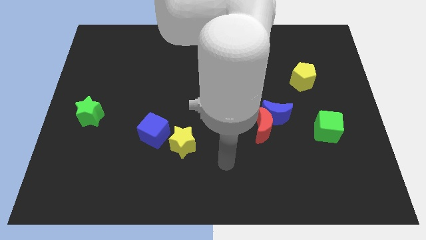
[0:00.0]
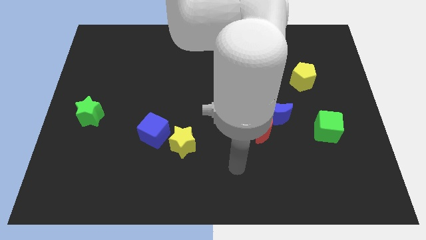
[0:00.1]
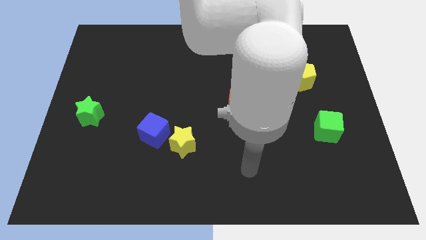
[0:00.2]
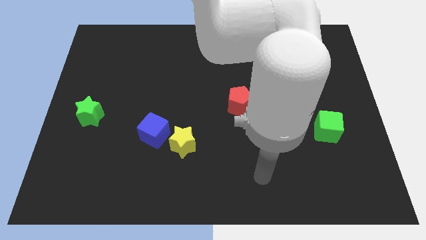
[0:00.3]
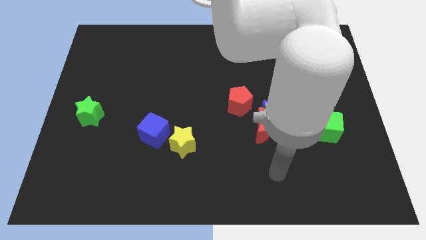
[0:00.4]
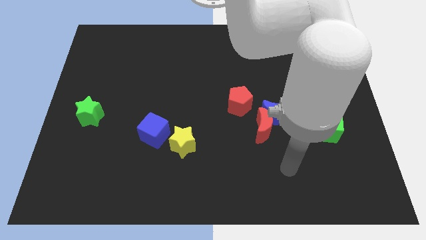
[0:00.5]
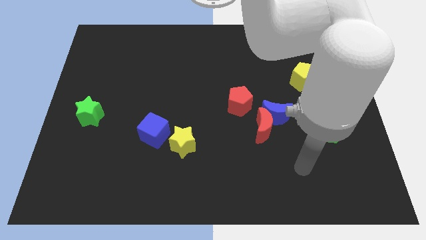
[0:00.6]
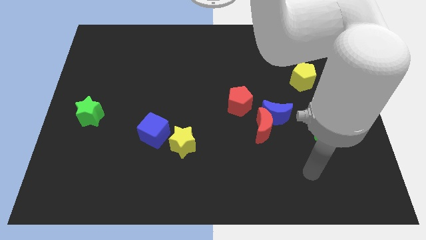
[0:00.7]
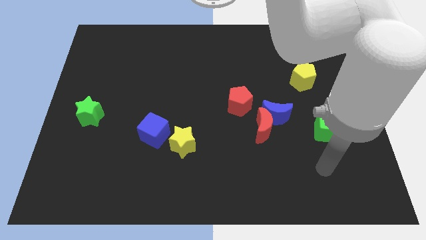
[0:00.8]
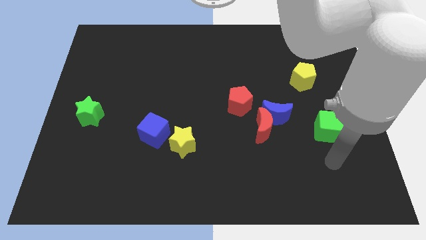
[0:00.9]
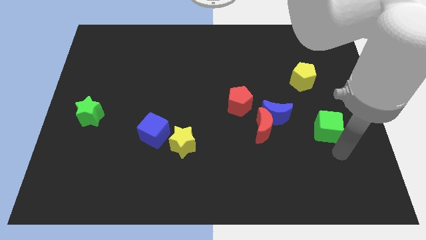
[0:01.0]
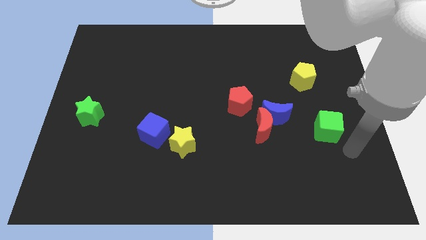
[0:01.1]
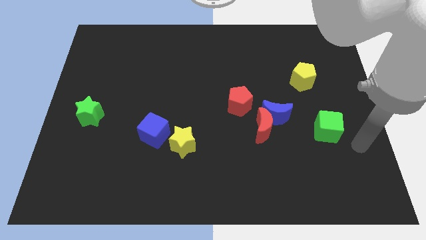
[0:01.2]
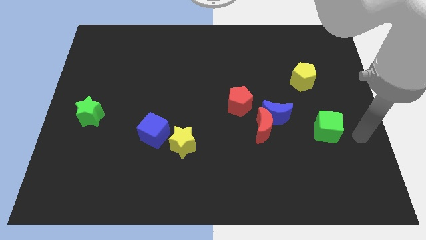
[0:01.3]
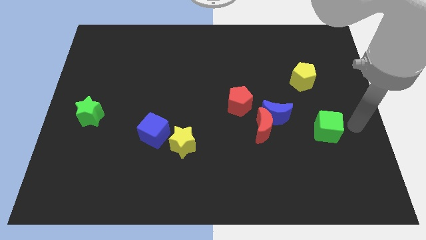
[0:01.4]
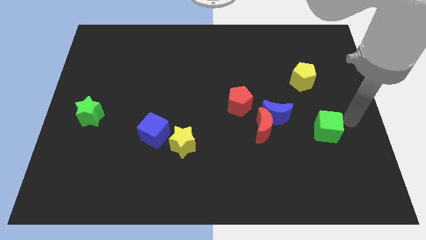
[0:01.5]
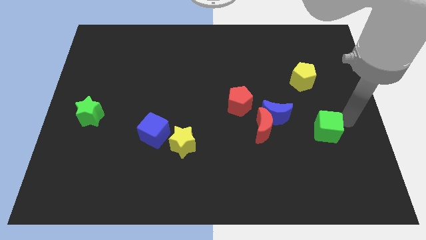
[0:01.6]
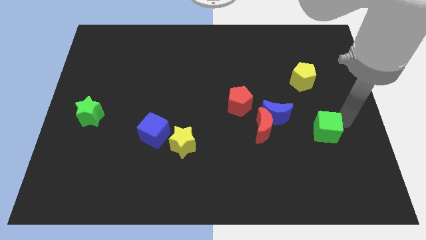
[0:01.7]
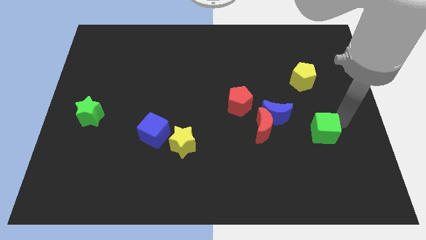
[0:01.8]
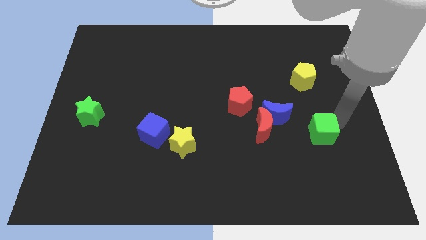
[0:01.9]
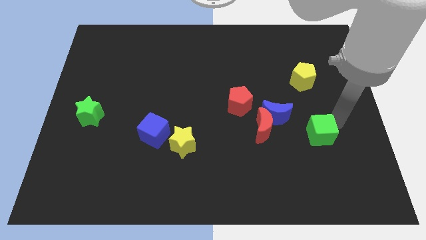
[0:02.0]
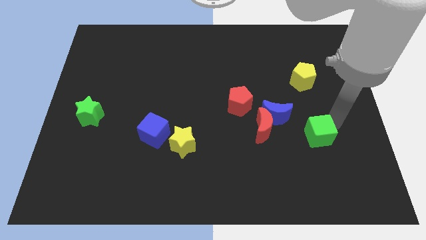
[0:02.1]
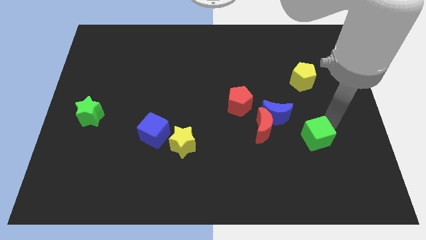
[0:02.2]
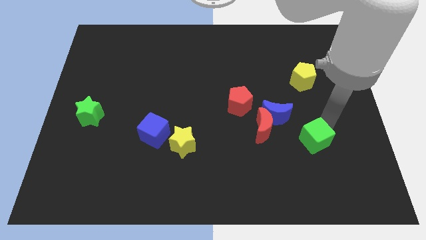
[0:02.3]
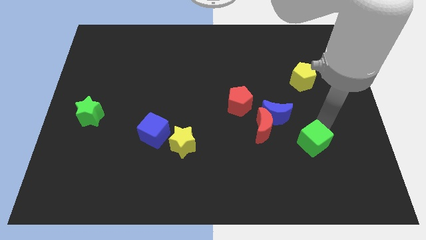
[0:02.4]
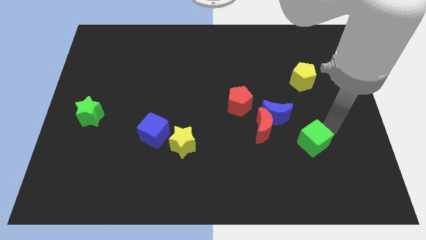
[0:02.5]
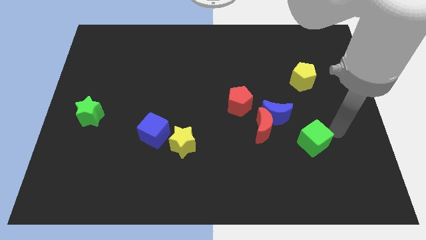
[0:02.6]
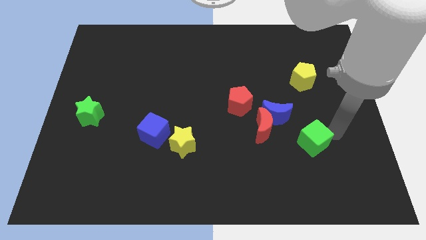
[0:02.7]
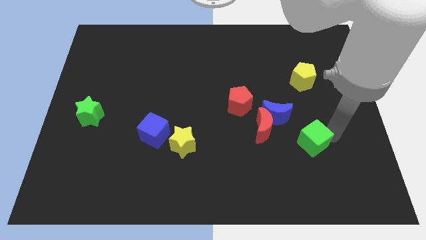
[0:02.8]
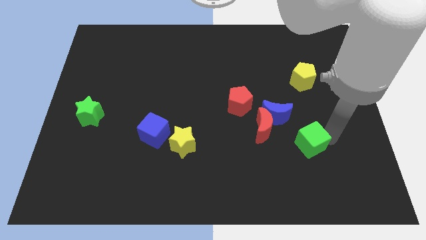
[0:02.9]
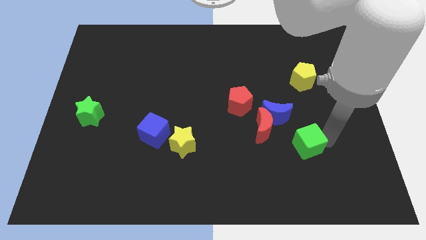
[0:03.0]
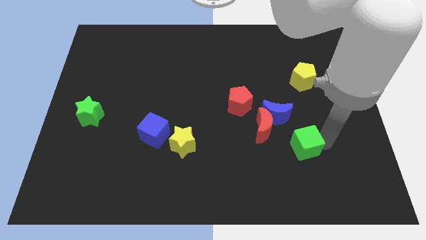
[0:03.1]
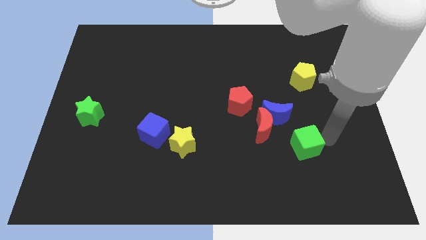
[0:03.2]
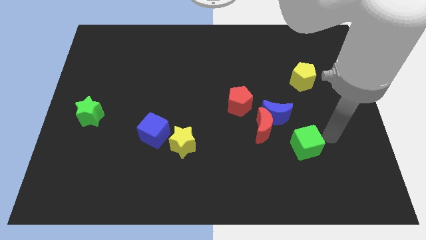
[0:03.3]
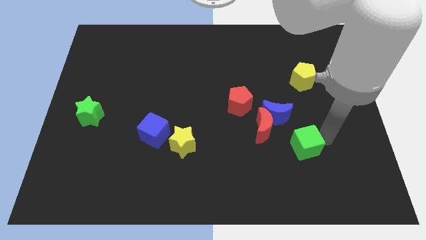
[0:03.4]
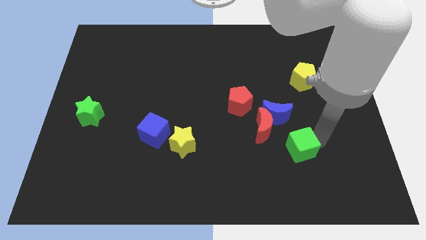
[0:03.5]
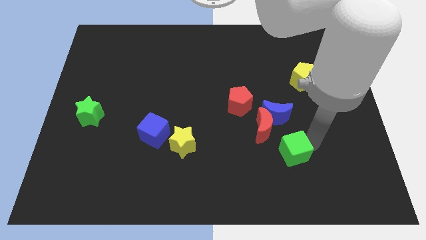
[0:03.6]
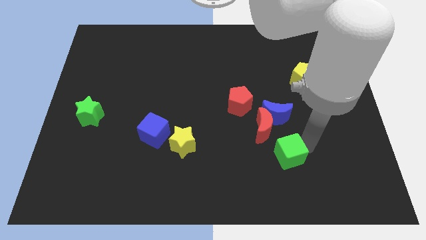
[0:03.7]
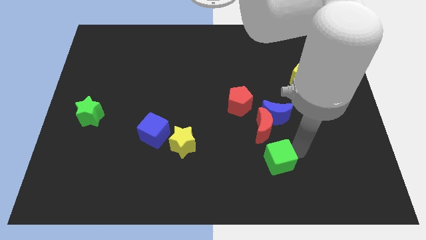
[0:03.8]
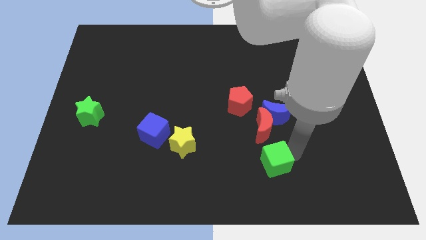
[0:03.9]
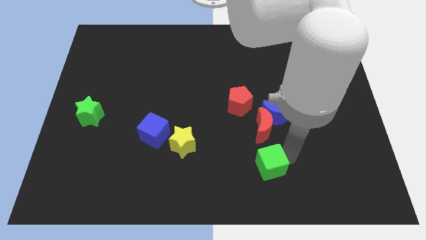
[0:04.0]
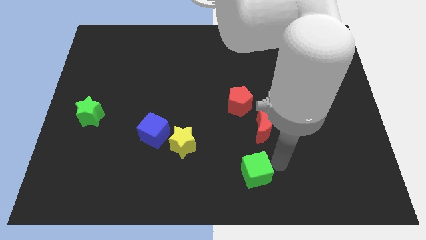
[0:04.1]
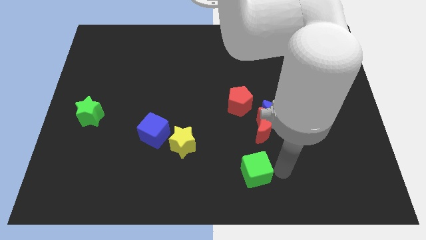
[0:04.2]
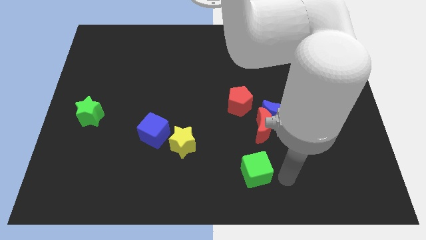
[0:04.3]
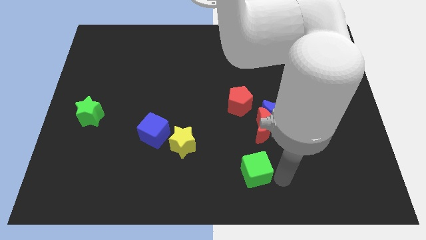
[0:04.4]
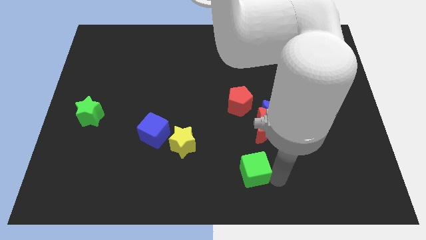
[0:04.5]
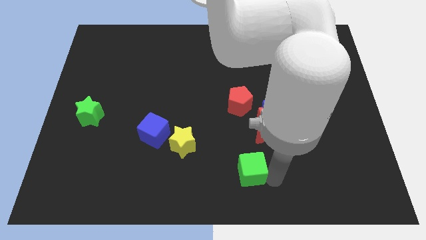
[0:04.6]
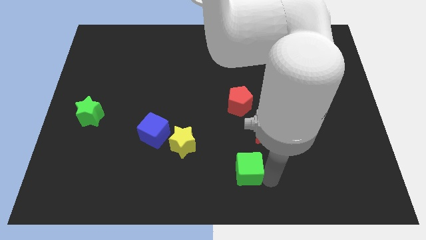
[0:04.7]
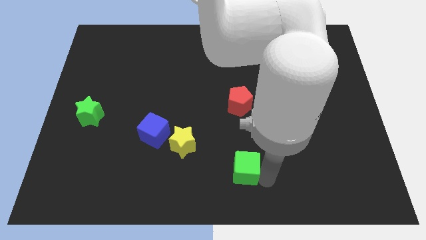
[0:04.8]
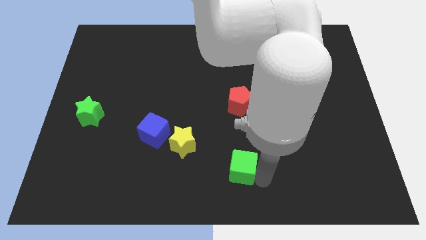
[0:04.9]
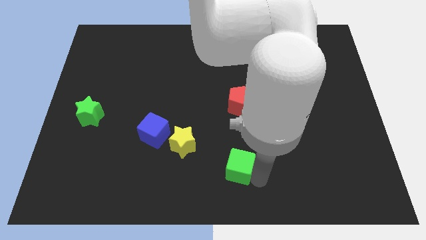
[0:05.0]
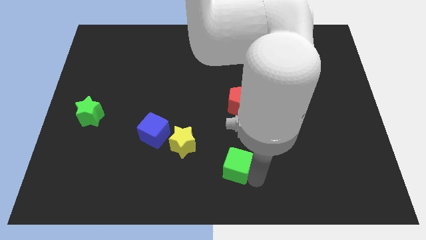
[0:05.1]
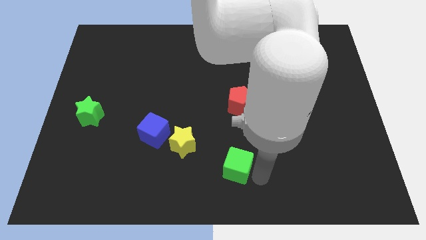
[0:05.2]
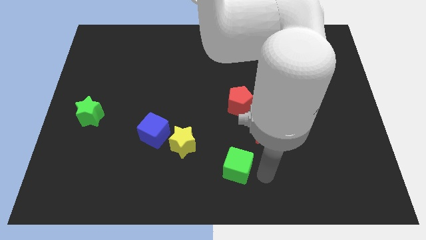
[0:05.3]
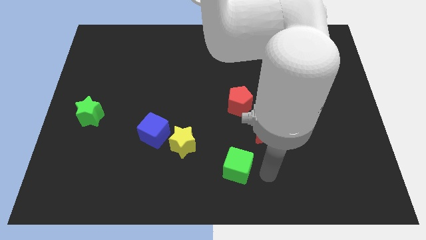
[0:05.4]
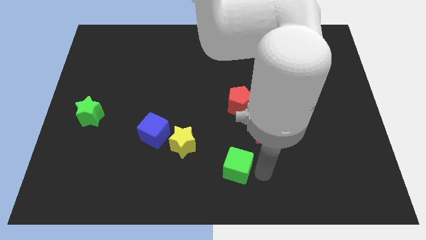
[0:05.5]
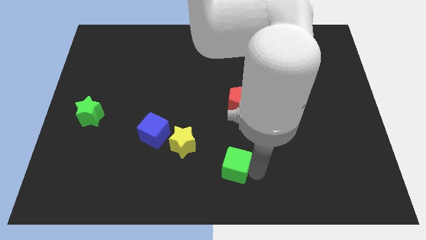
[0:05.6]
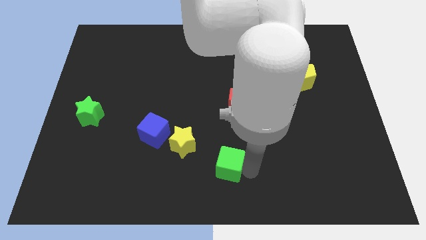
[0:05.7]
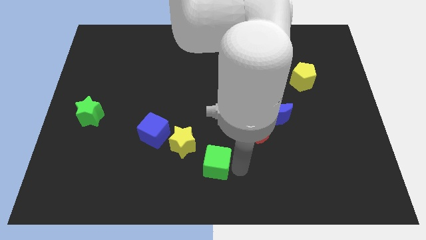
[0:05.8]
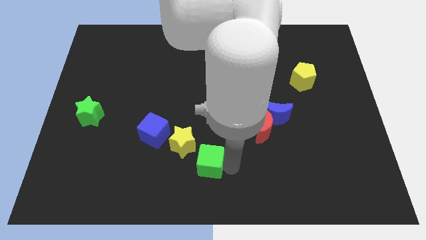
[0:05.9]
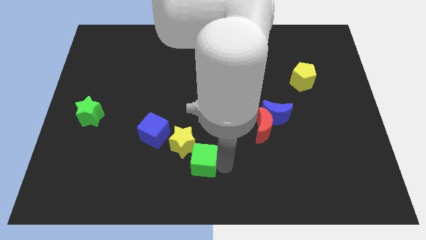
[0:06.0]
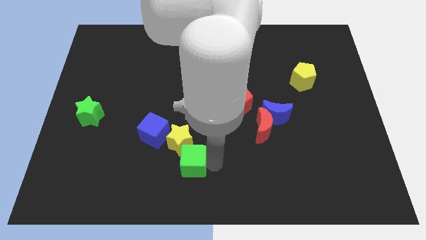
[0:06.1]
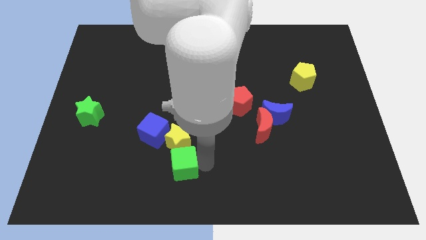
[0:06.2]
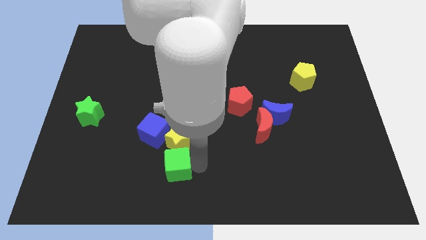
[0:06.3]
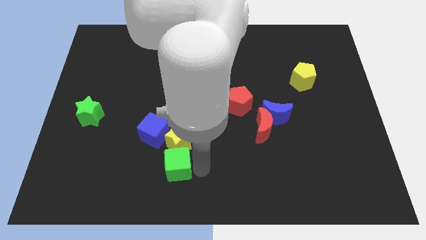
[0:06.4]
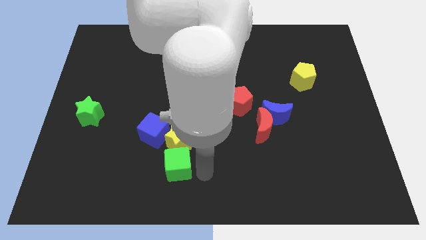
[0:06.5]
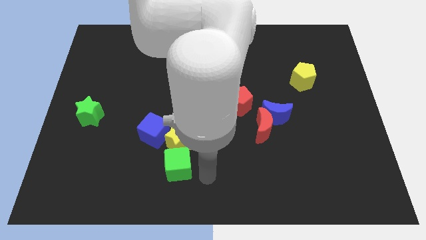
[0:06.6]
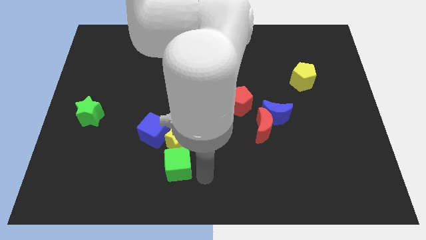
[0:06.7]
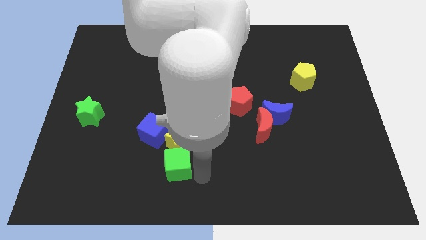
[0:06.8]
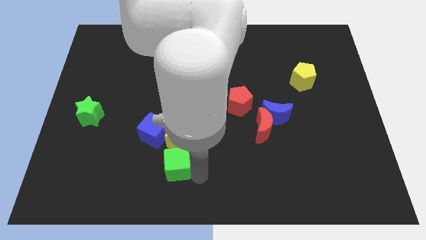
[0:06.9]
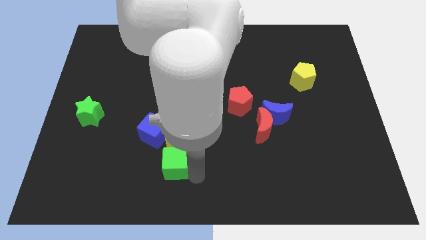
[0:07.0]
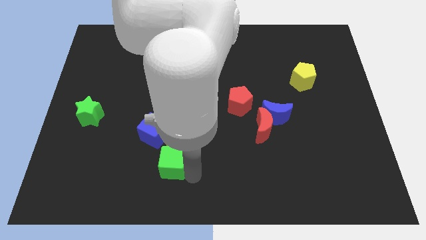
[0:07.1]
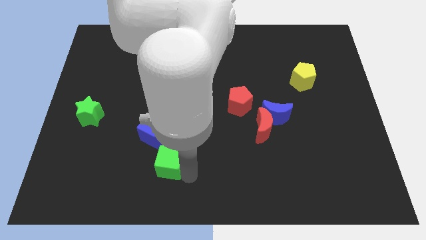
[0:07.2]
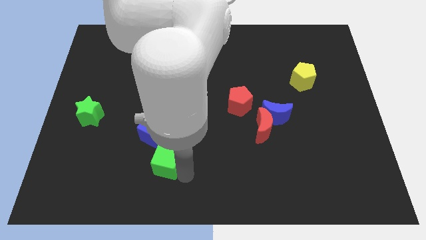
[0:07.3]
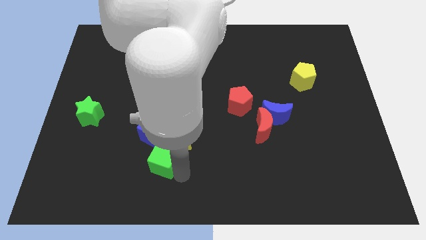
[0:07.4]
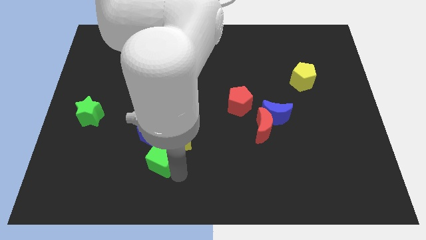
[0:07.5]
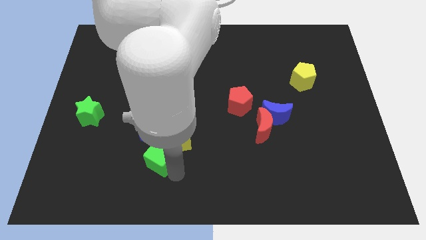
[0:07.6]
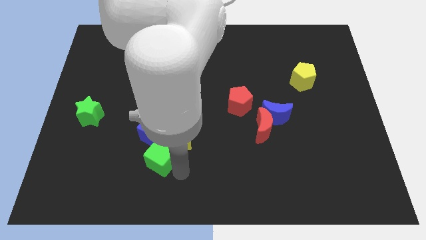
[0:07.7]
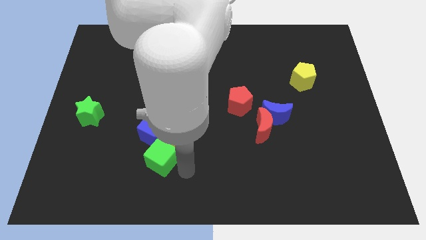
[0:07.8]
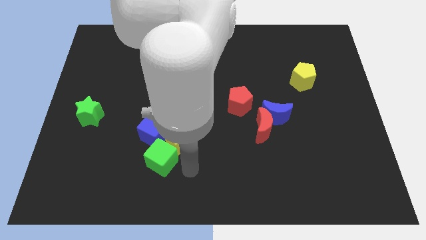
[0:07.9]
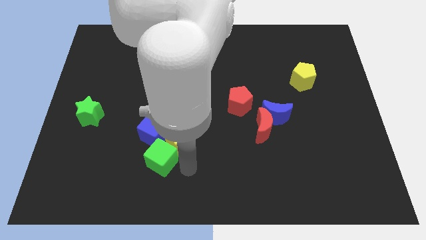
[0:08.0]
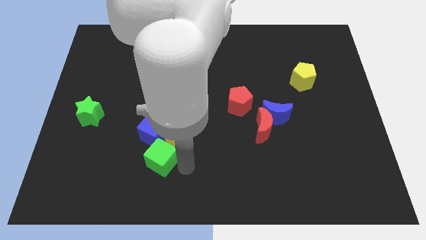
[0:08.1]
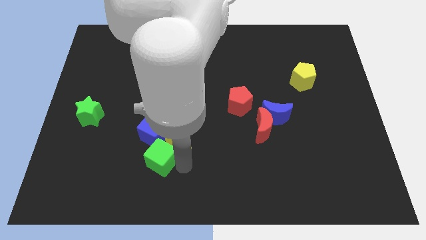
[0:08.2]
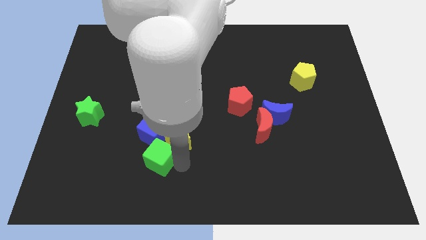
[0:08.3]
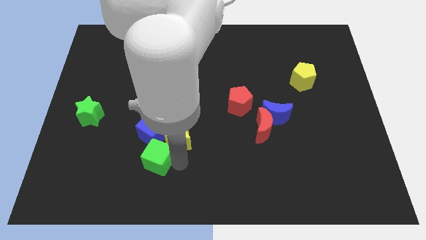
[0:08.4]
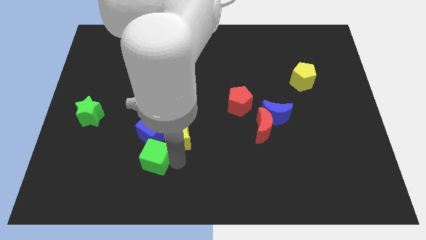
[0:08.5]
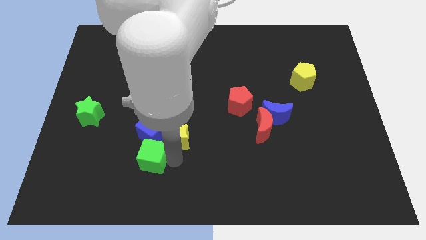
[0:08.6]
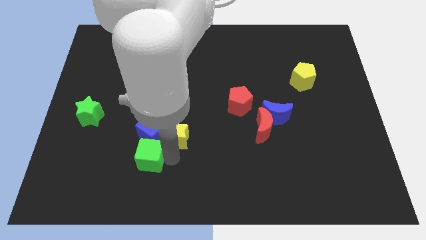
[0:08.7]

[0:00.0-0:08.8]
move the green cube diagonally down and to the left of the blue cube
